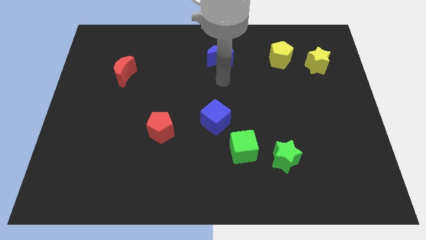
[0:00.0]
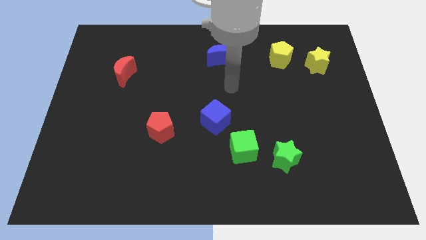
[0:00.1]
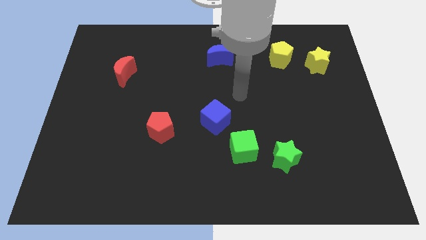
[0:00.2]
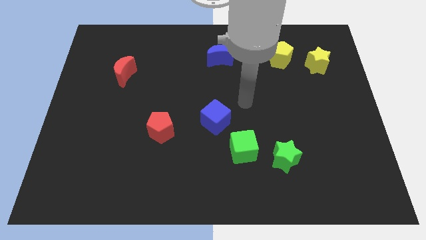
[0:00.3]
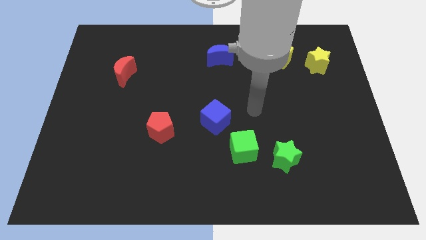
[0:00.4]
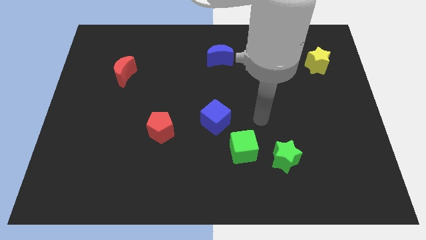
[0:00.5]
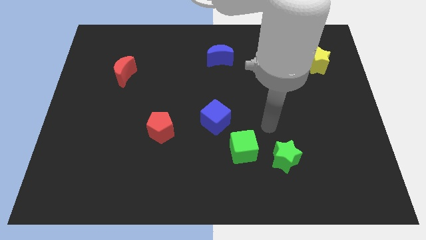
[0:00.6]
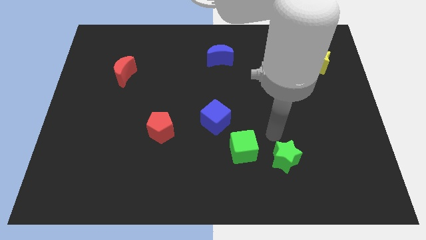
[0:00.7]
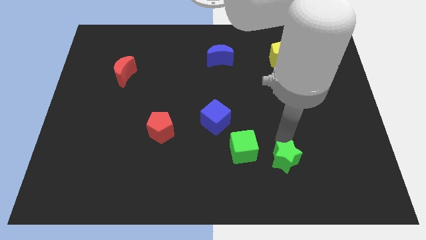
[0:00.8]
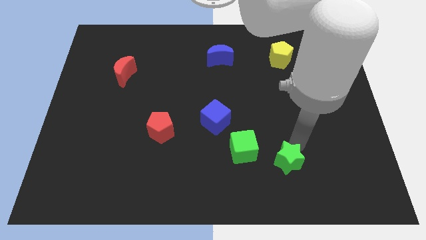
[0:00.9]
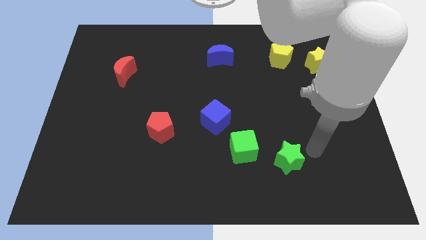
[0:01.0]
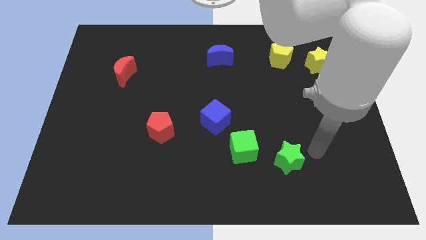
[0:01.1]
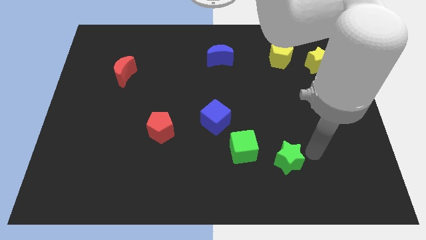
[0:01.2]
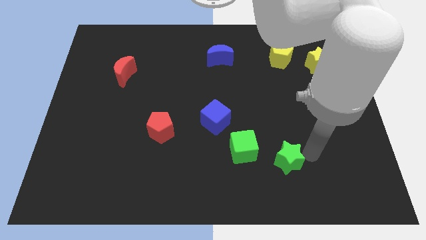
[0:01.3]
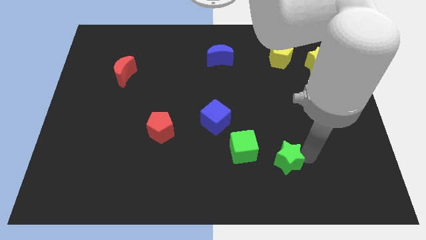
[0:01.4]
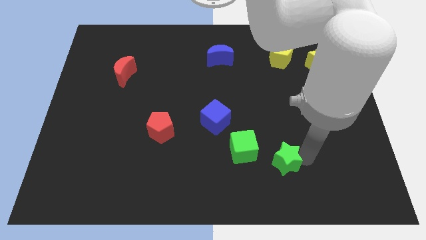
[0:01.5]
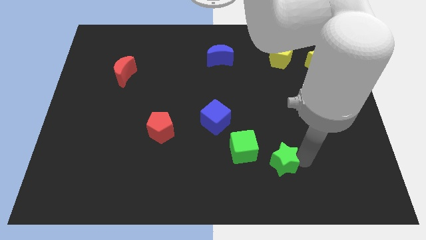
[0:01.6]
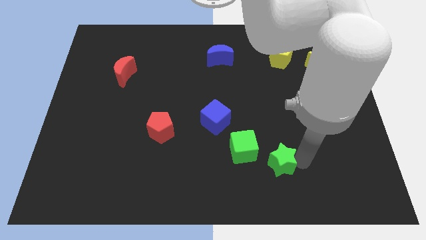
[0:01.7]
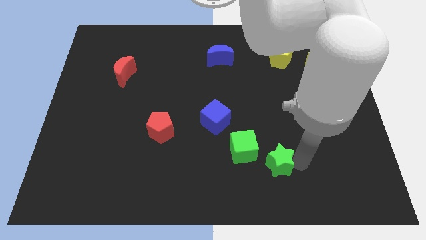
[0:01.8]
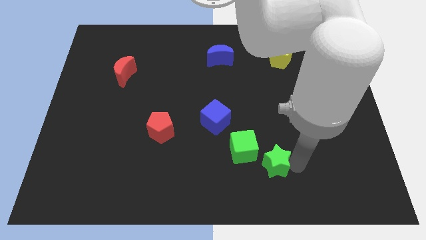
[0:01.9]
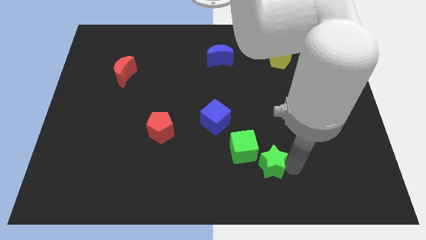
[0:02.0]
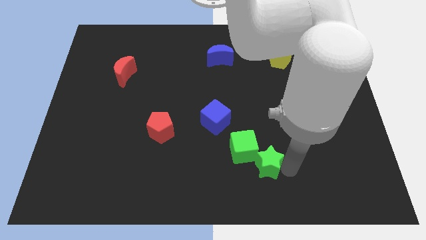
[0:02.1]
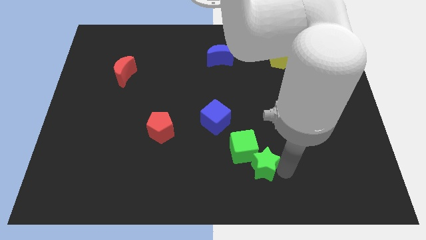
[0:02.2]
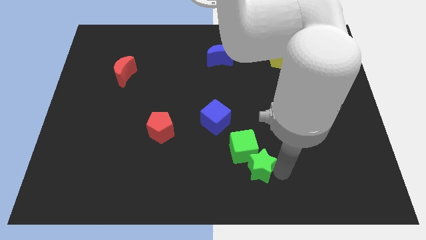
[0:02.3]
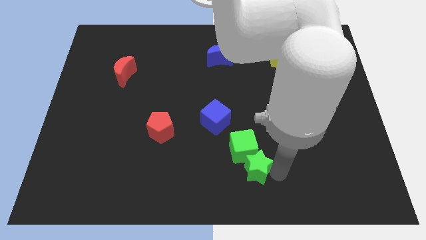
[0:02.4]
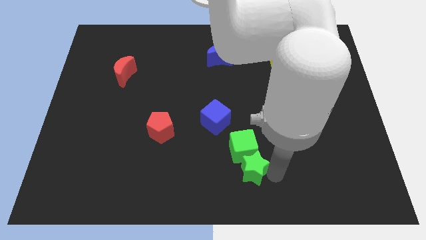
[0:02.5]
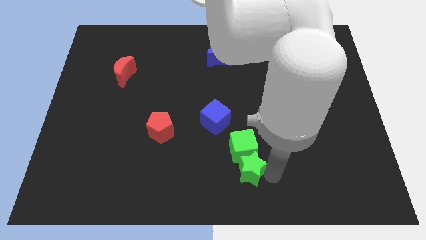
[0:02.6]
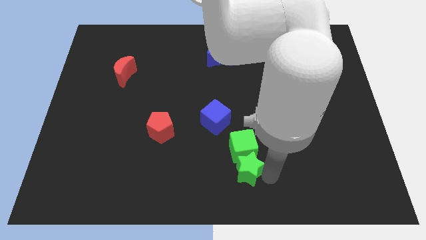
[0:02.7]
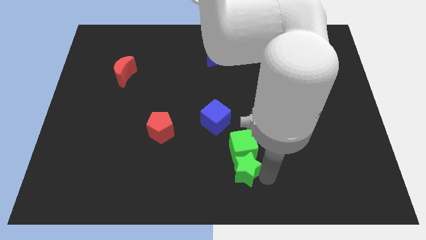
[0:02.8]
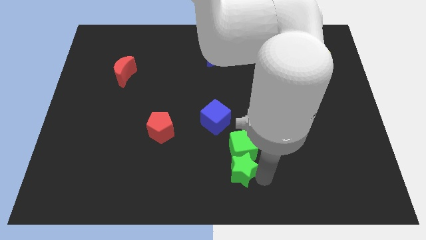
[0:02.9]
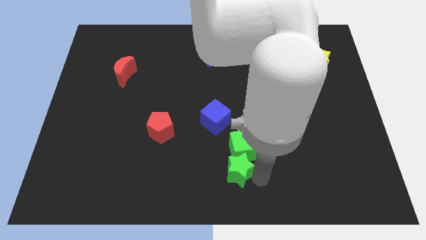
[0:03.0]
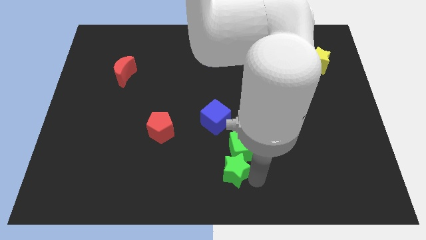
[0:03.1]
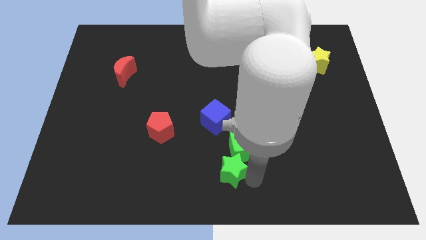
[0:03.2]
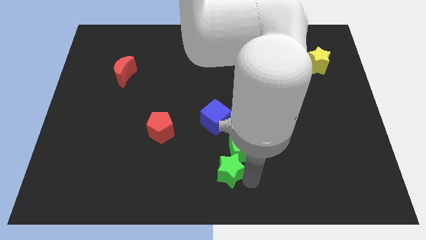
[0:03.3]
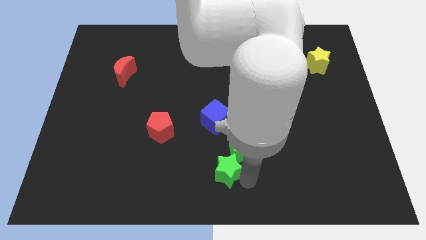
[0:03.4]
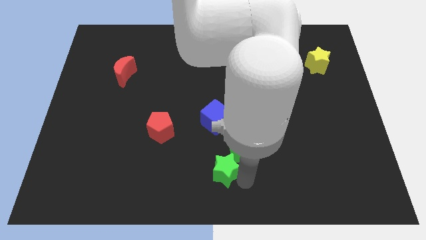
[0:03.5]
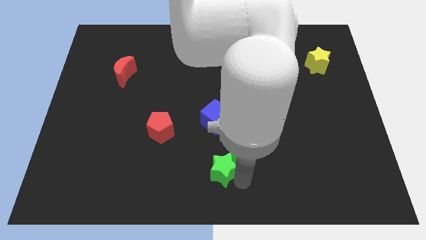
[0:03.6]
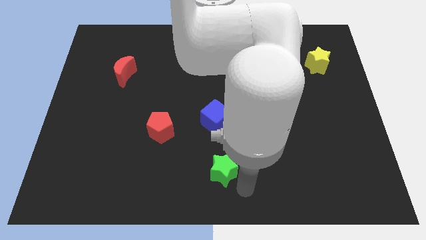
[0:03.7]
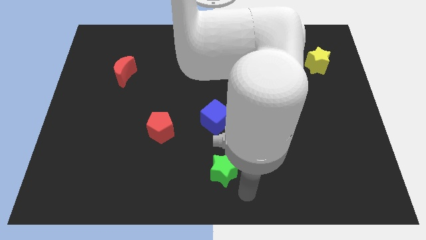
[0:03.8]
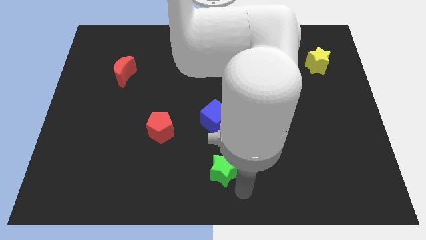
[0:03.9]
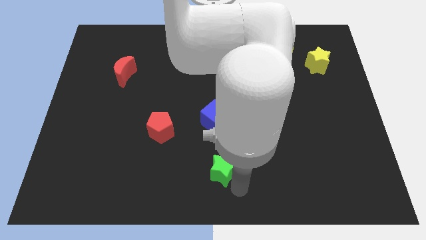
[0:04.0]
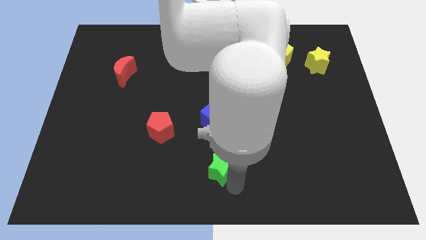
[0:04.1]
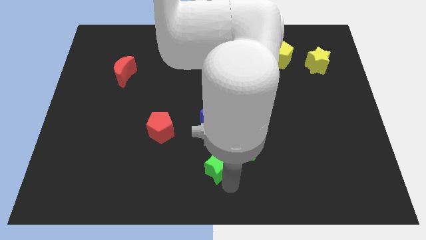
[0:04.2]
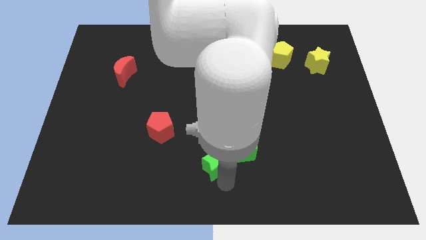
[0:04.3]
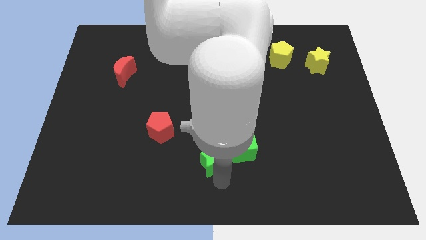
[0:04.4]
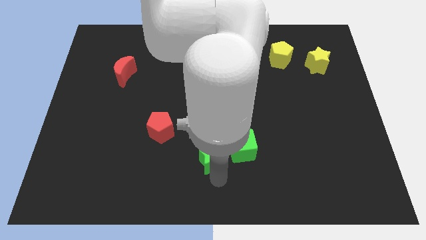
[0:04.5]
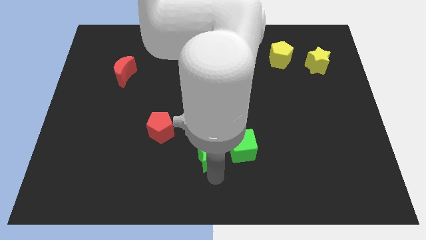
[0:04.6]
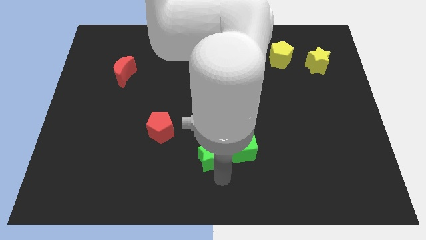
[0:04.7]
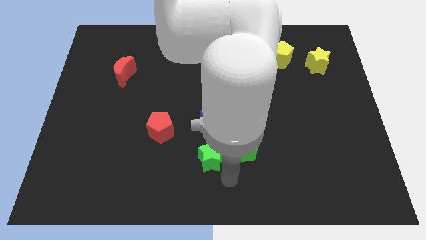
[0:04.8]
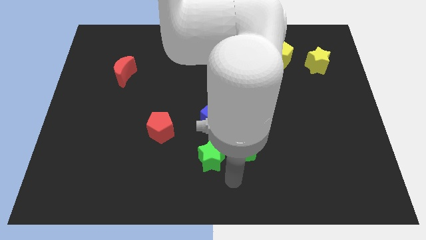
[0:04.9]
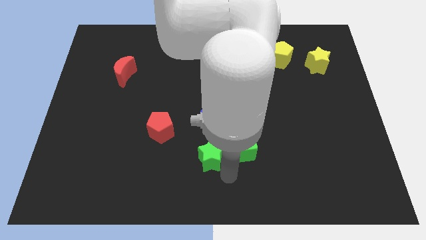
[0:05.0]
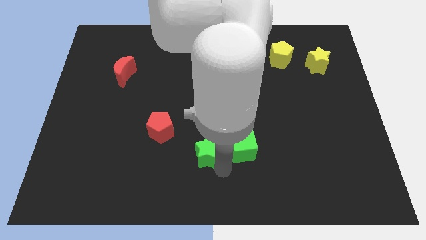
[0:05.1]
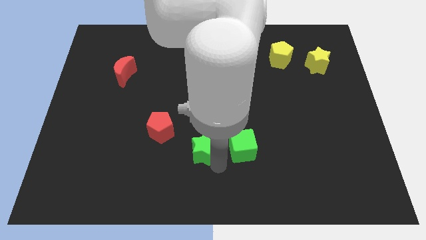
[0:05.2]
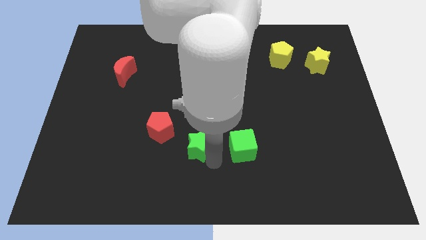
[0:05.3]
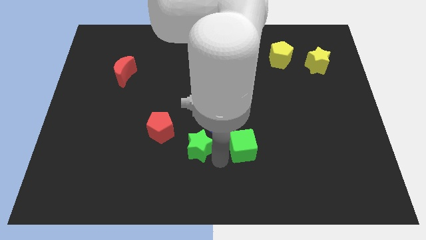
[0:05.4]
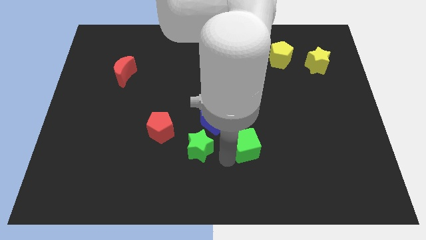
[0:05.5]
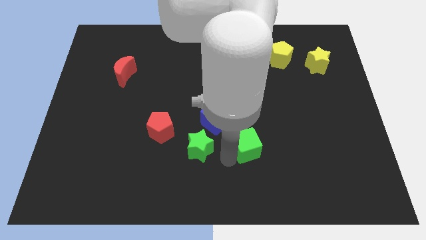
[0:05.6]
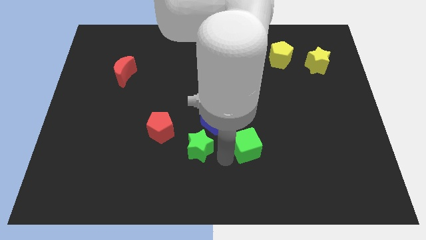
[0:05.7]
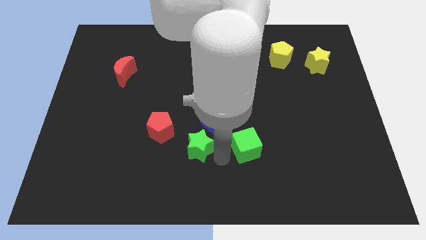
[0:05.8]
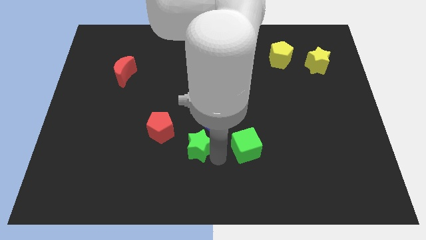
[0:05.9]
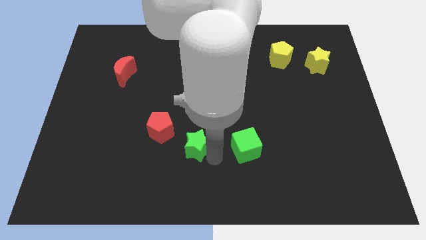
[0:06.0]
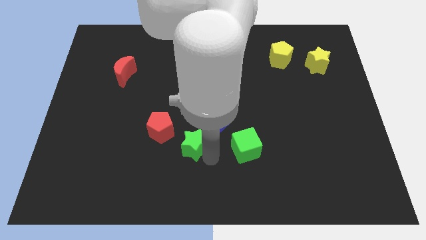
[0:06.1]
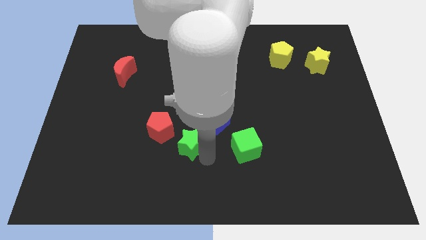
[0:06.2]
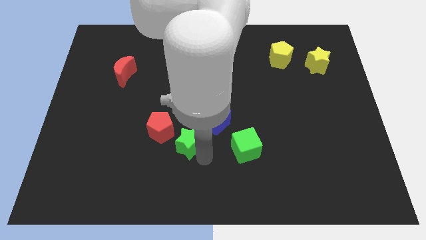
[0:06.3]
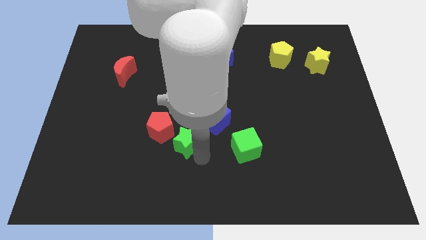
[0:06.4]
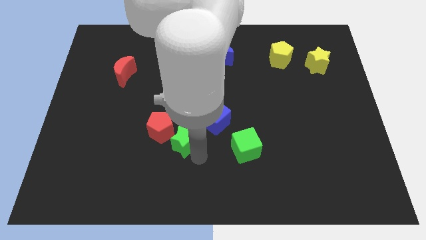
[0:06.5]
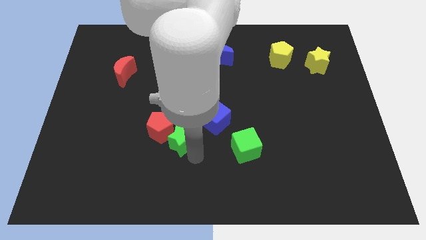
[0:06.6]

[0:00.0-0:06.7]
push the green star next to the red pentagon
